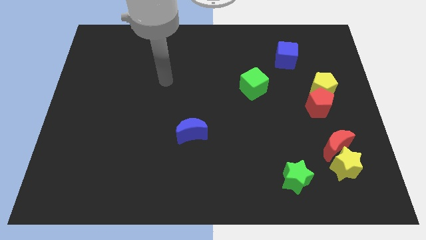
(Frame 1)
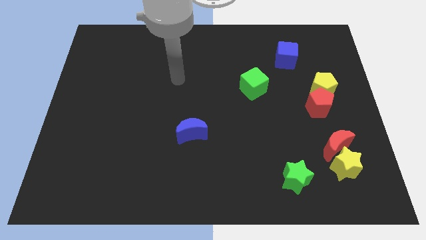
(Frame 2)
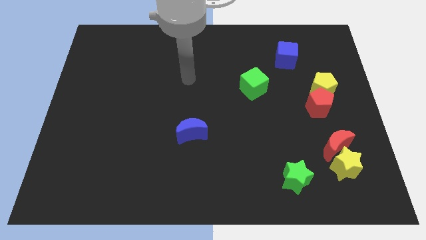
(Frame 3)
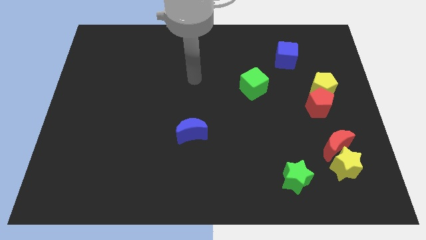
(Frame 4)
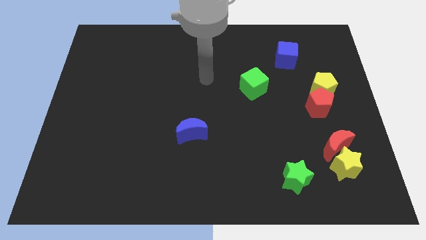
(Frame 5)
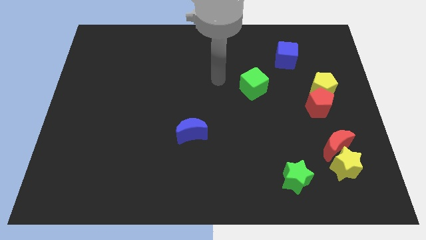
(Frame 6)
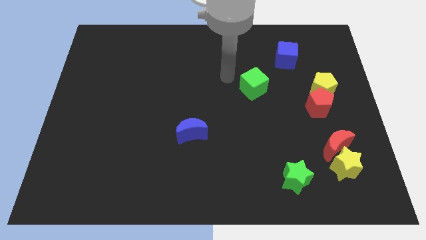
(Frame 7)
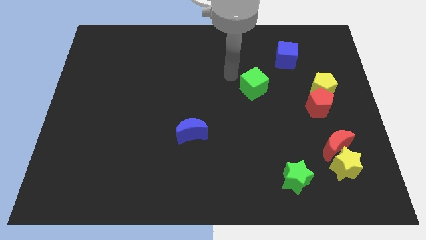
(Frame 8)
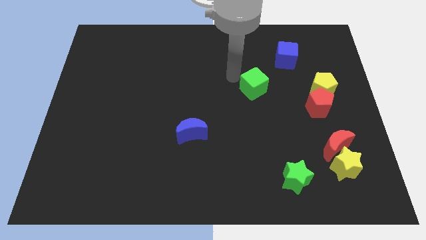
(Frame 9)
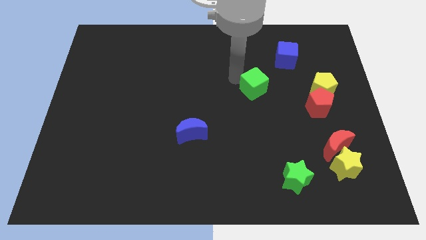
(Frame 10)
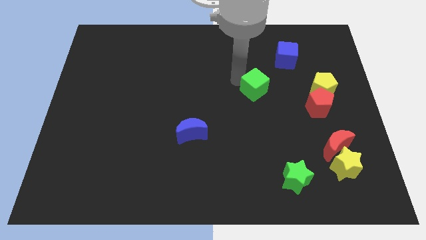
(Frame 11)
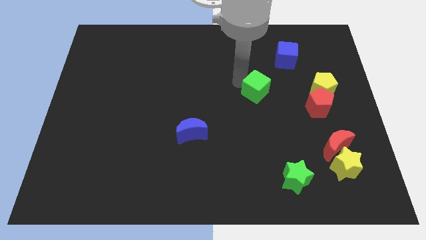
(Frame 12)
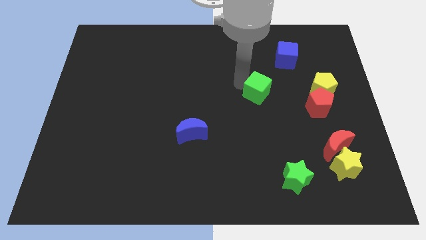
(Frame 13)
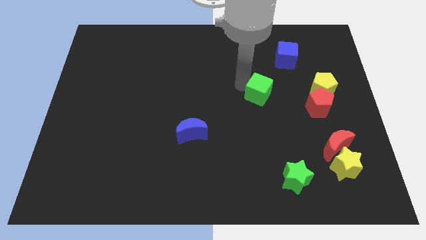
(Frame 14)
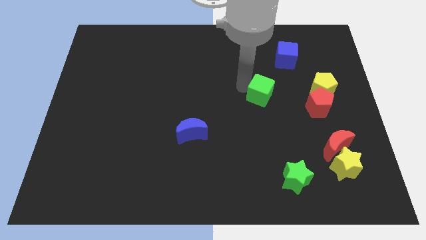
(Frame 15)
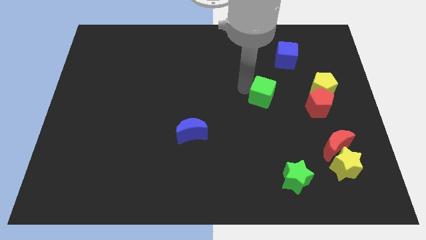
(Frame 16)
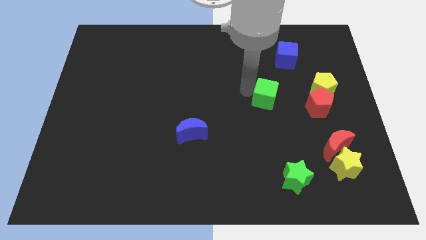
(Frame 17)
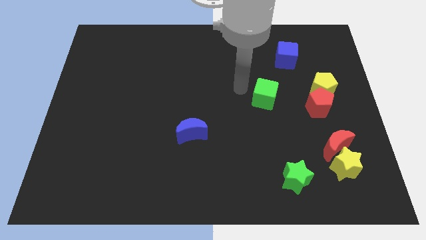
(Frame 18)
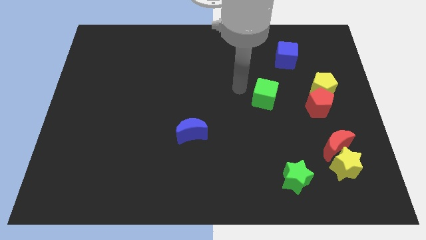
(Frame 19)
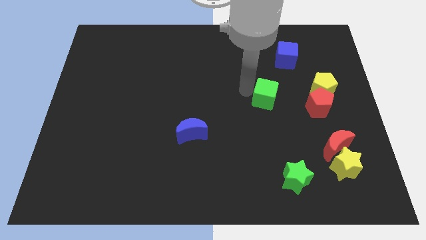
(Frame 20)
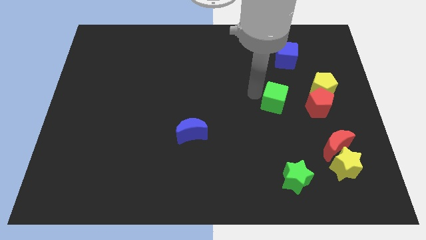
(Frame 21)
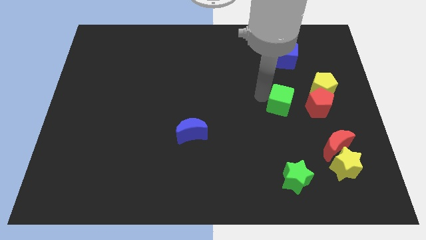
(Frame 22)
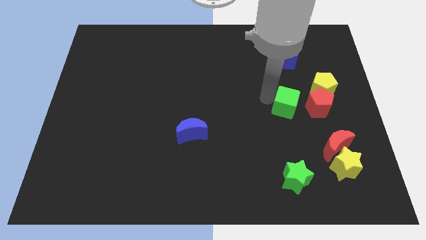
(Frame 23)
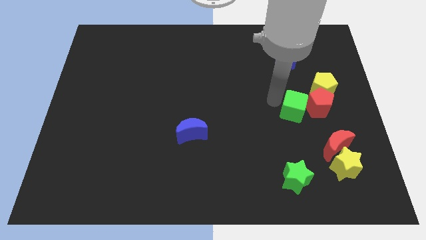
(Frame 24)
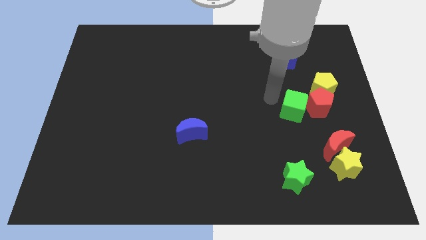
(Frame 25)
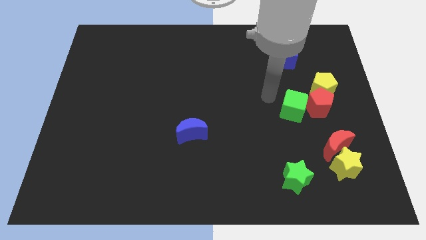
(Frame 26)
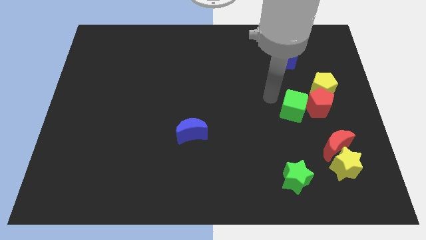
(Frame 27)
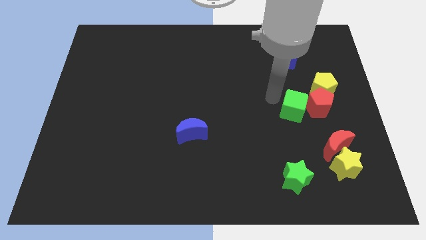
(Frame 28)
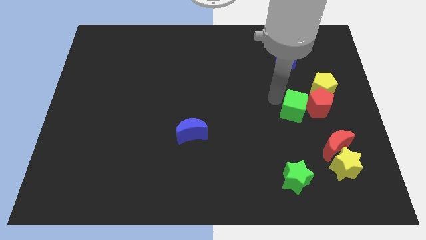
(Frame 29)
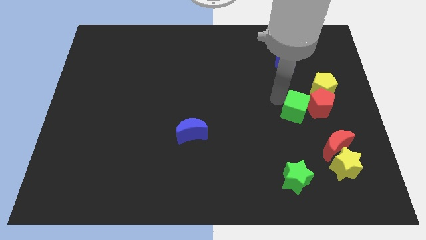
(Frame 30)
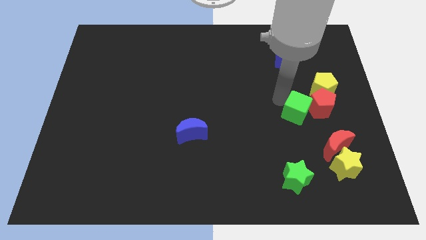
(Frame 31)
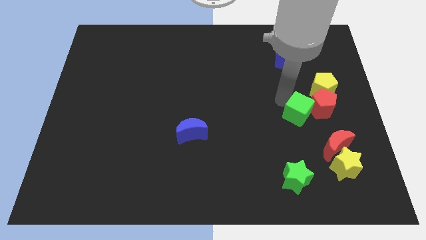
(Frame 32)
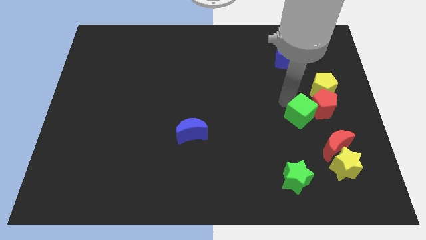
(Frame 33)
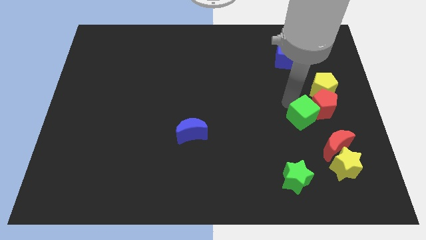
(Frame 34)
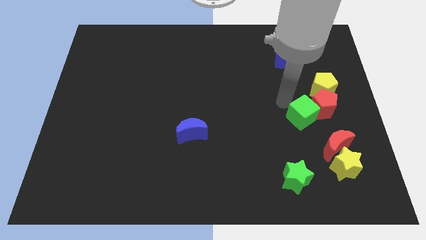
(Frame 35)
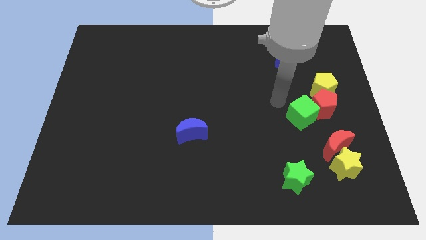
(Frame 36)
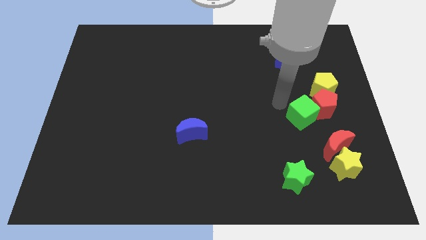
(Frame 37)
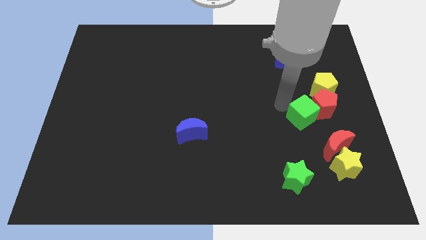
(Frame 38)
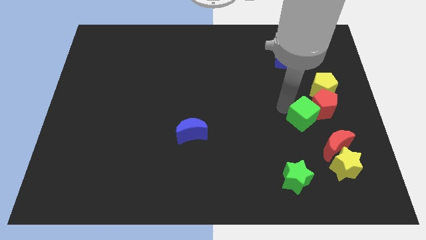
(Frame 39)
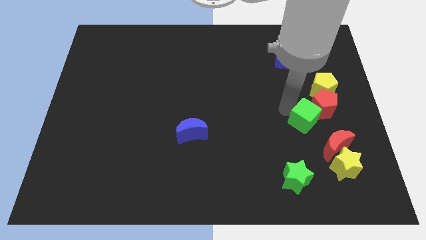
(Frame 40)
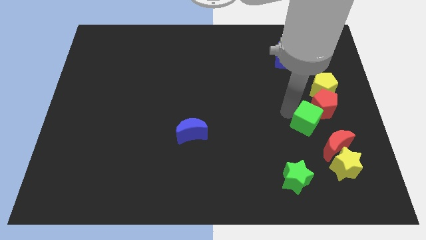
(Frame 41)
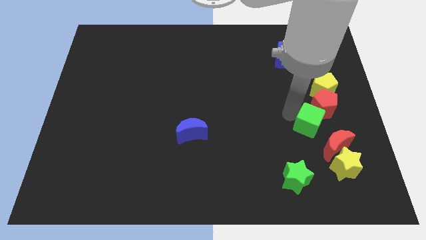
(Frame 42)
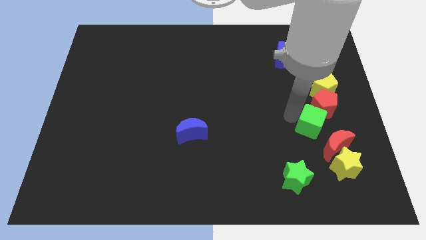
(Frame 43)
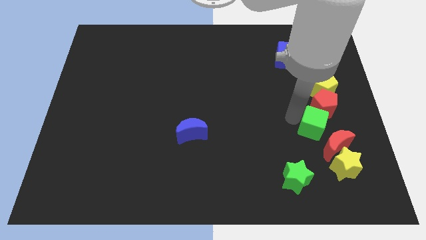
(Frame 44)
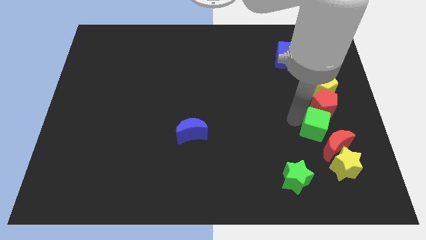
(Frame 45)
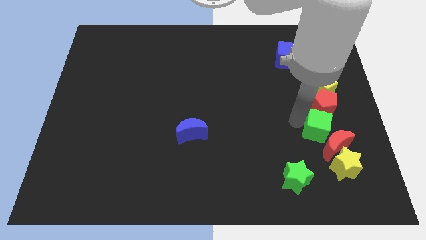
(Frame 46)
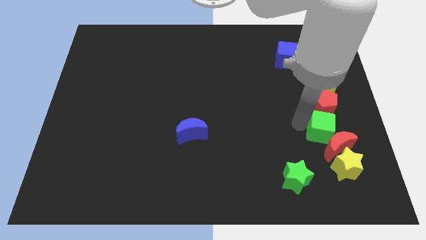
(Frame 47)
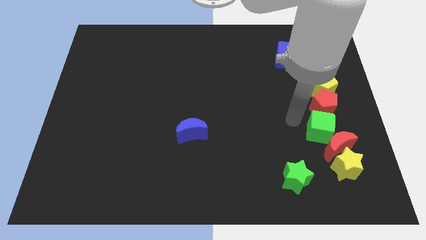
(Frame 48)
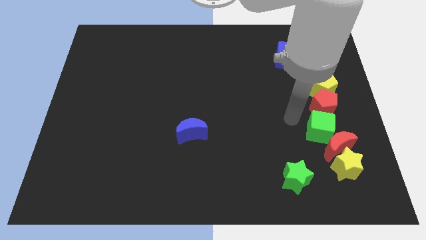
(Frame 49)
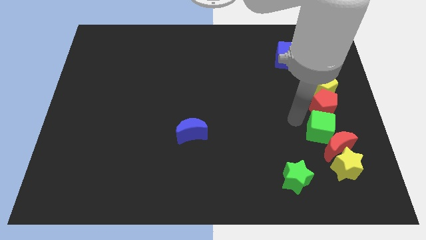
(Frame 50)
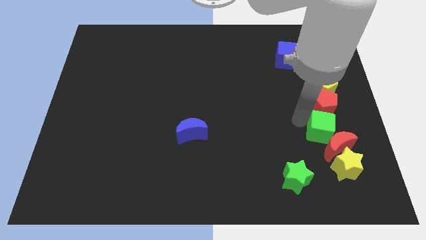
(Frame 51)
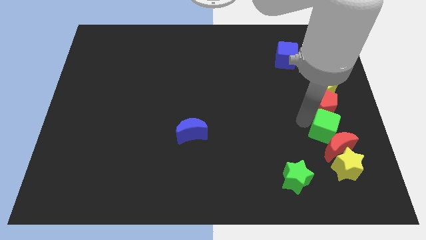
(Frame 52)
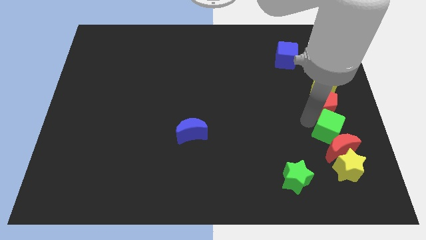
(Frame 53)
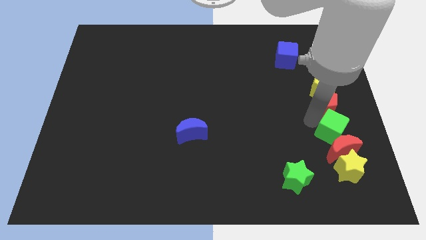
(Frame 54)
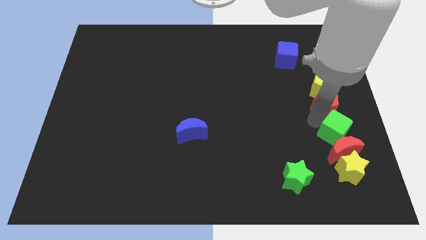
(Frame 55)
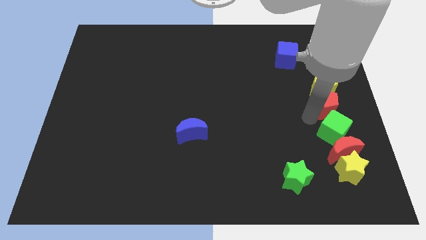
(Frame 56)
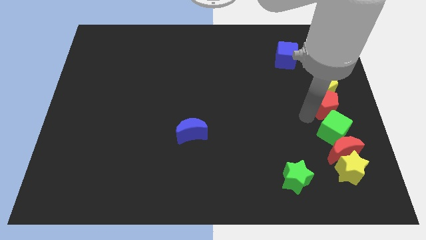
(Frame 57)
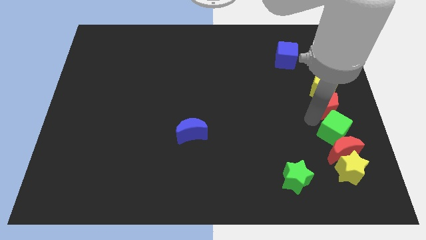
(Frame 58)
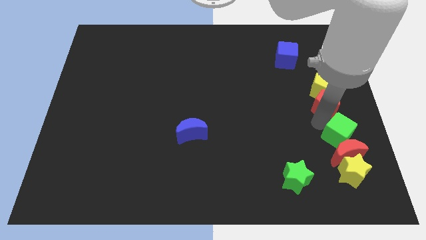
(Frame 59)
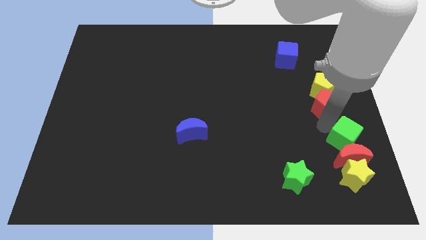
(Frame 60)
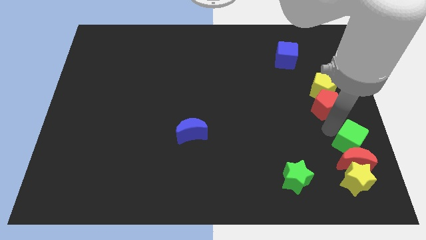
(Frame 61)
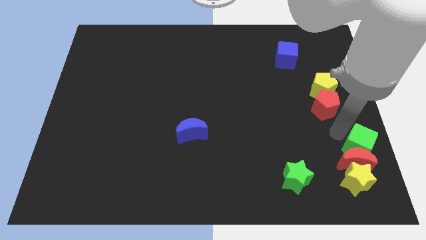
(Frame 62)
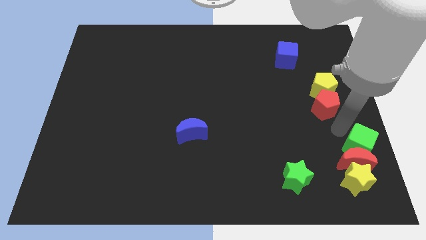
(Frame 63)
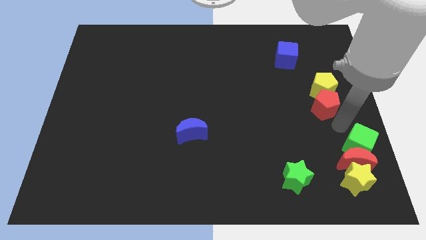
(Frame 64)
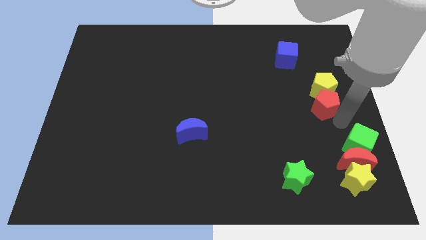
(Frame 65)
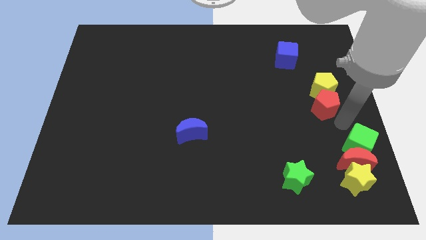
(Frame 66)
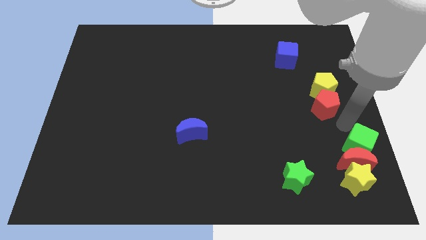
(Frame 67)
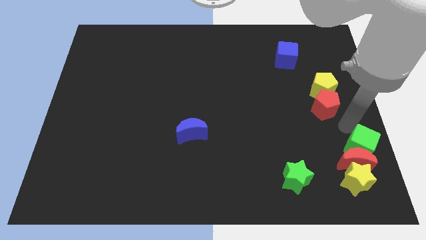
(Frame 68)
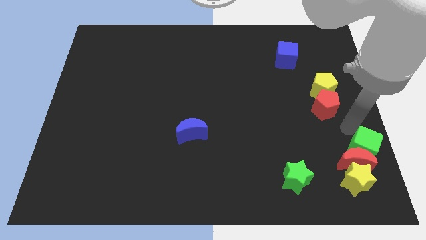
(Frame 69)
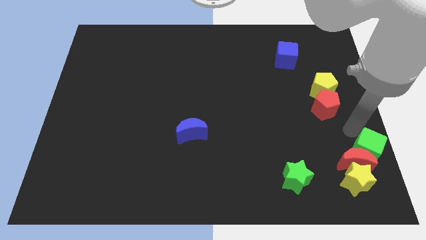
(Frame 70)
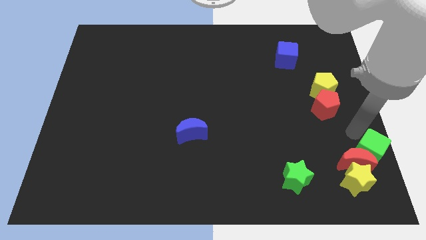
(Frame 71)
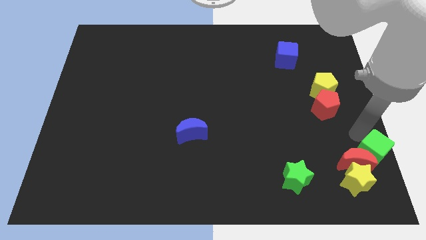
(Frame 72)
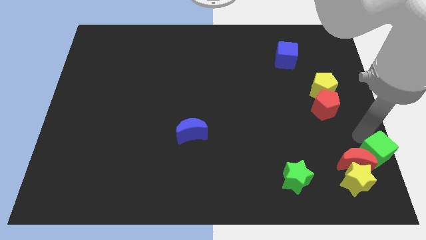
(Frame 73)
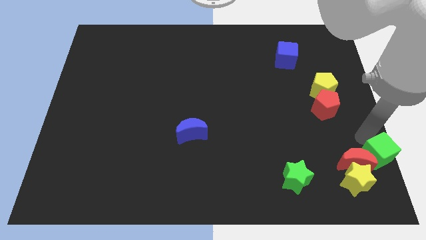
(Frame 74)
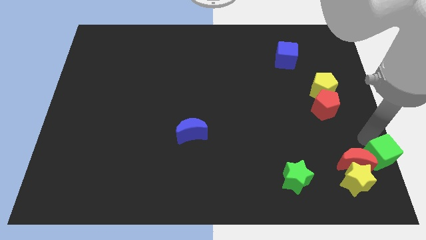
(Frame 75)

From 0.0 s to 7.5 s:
slide the green cube to the bottom right corner

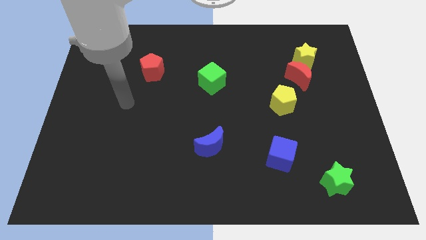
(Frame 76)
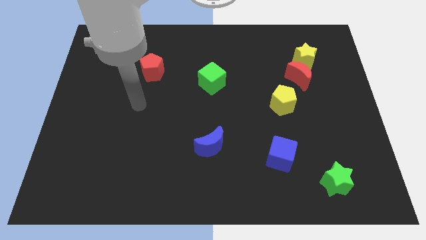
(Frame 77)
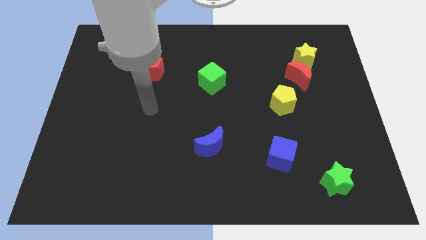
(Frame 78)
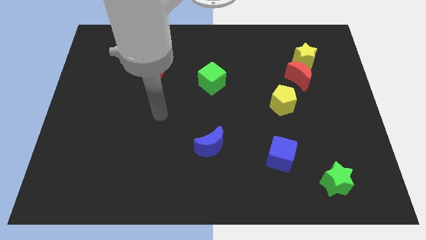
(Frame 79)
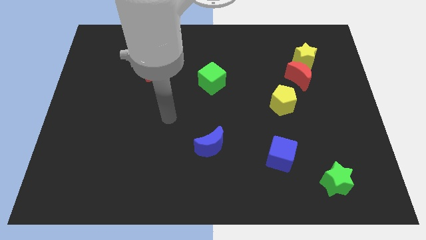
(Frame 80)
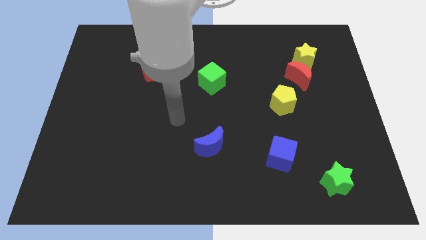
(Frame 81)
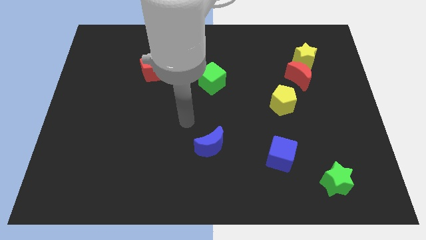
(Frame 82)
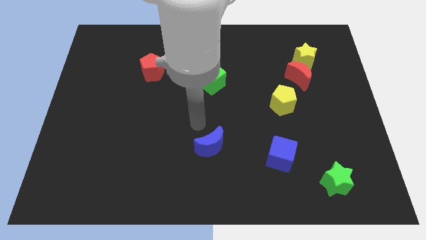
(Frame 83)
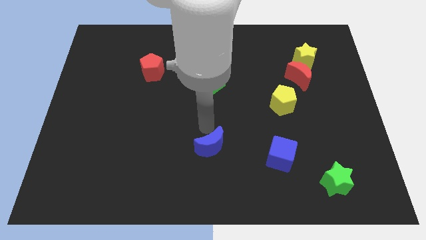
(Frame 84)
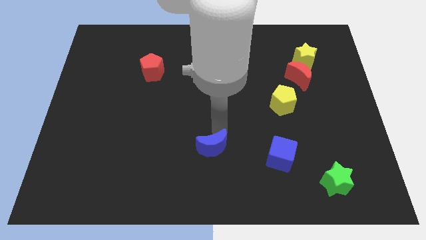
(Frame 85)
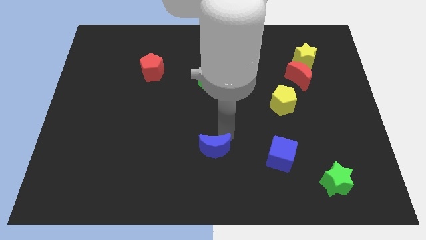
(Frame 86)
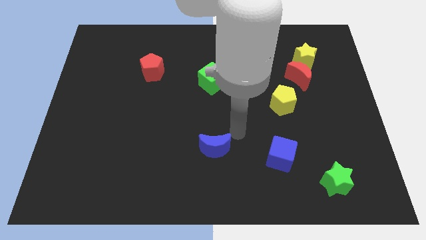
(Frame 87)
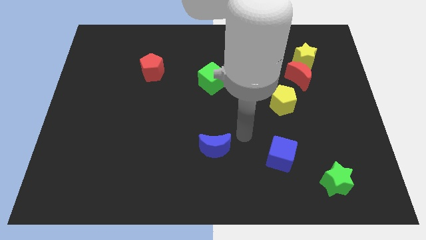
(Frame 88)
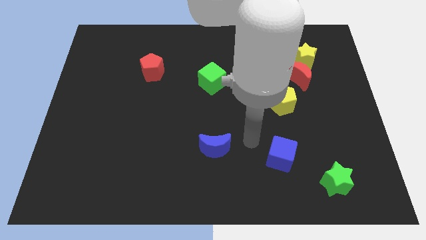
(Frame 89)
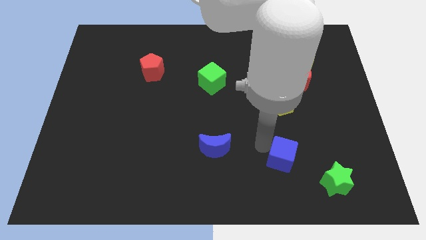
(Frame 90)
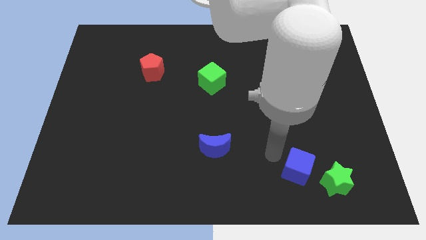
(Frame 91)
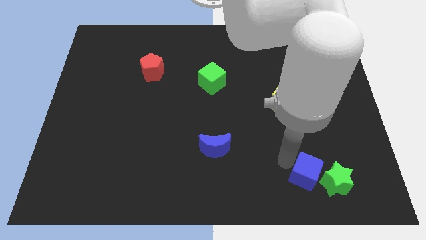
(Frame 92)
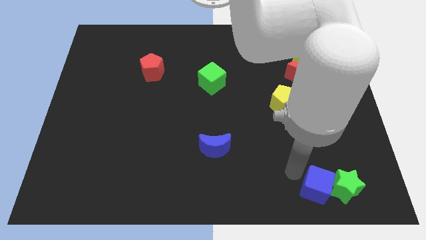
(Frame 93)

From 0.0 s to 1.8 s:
move the green star to the lower right corner
